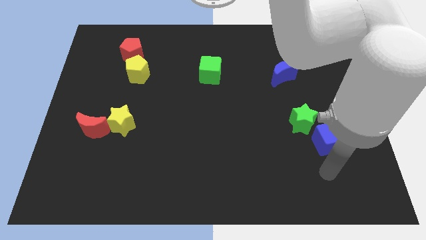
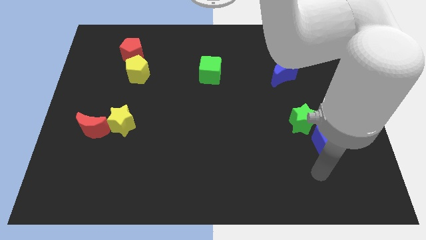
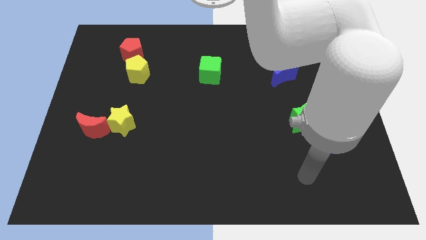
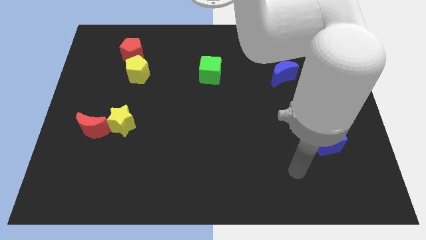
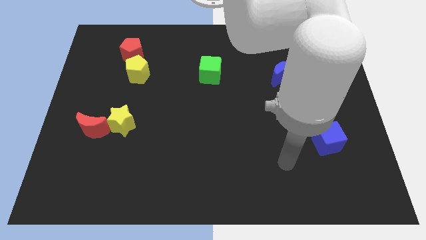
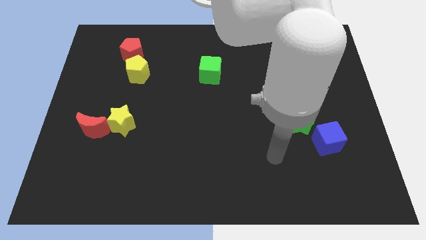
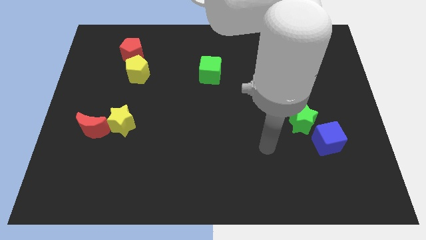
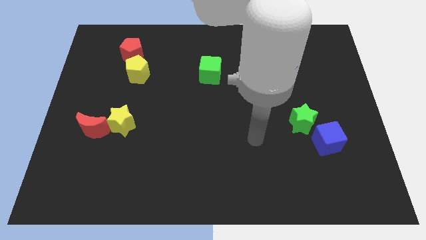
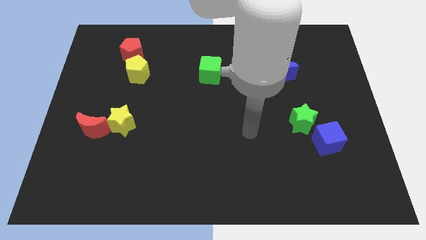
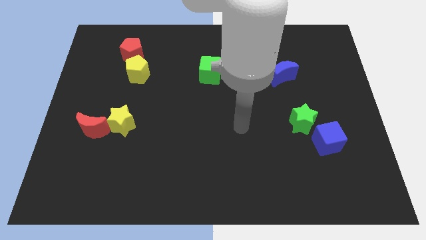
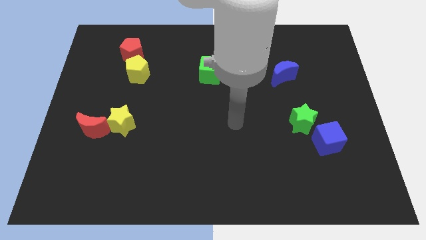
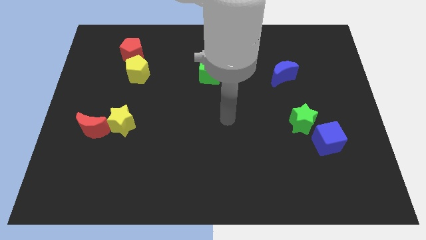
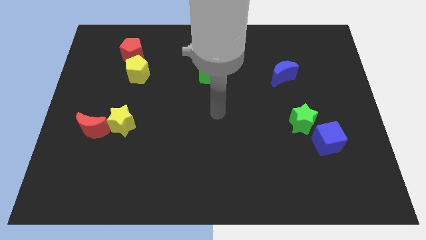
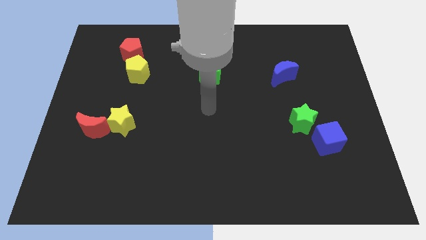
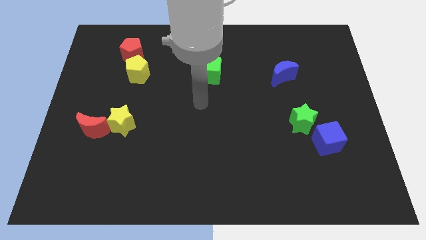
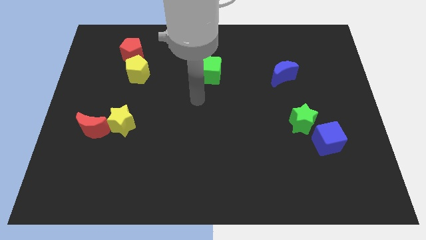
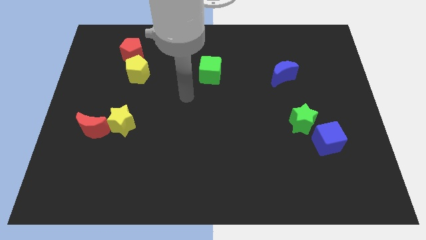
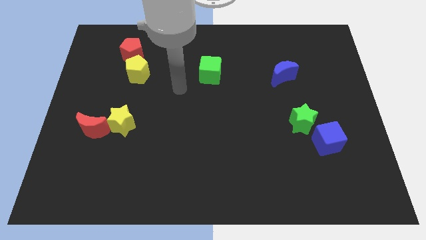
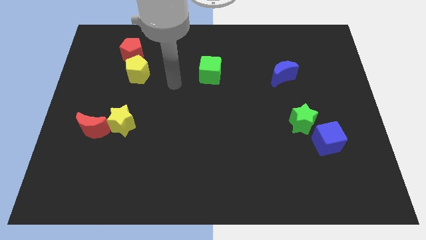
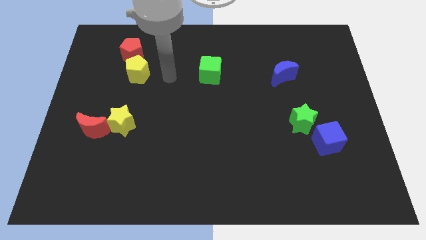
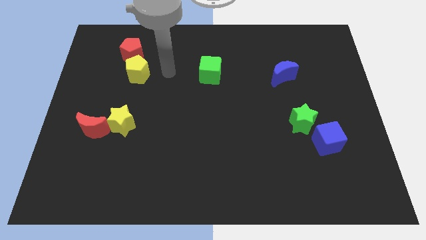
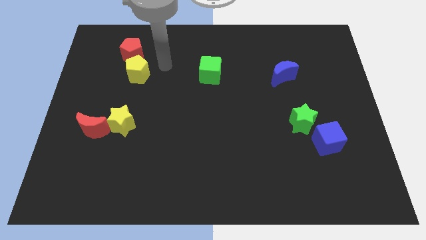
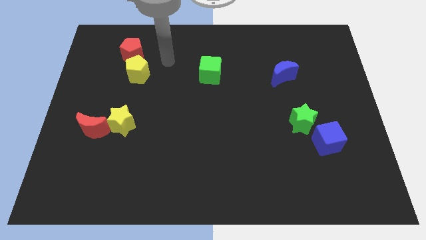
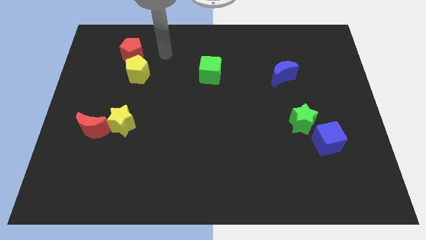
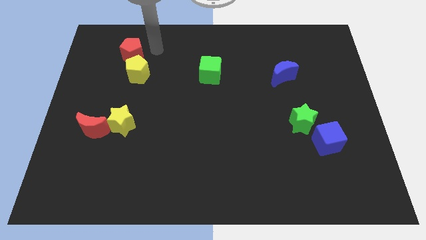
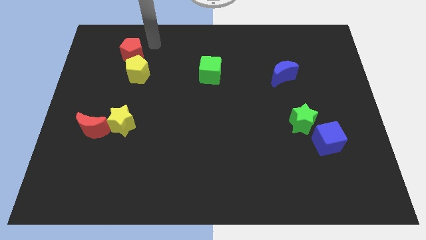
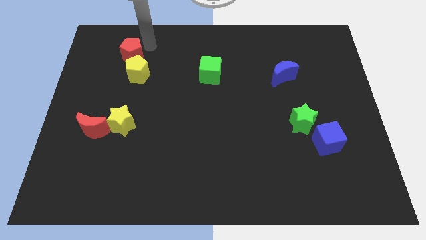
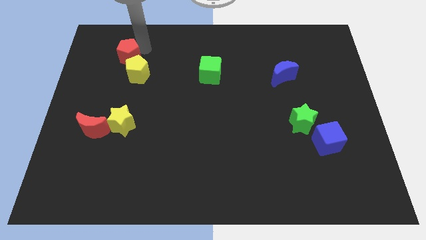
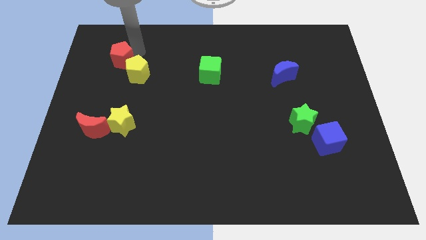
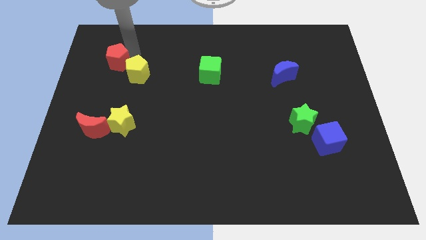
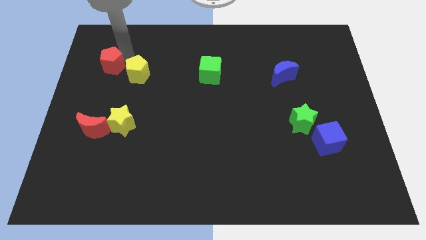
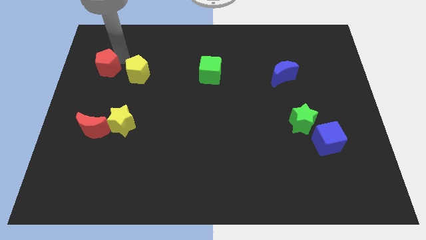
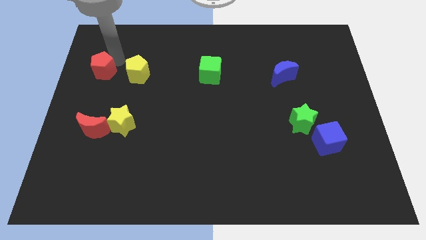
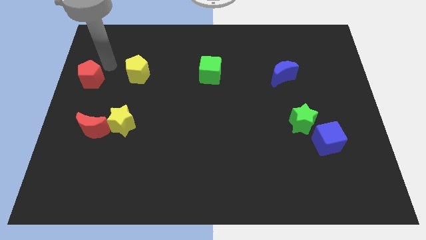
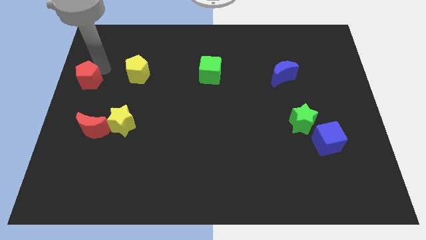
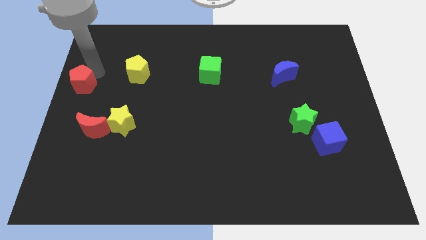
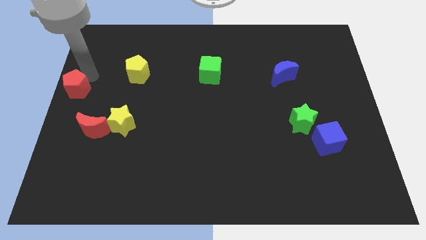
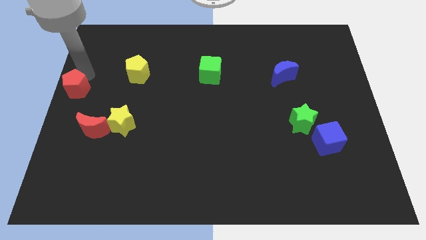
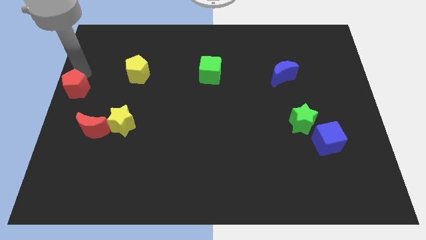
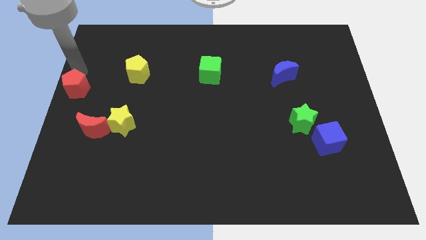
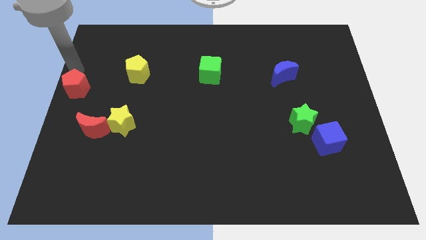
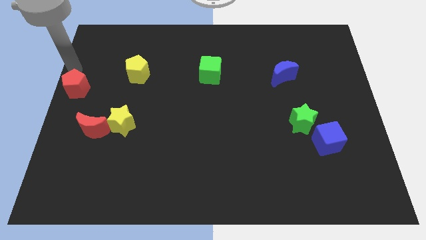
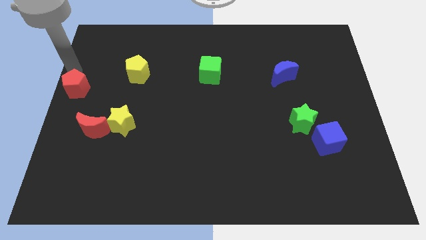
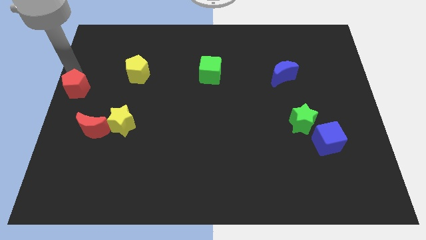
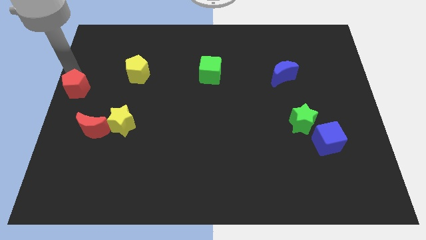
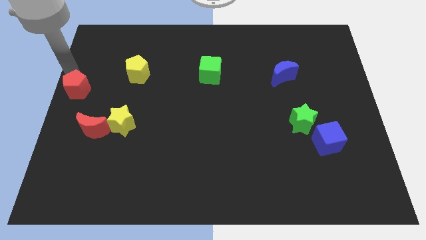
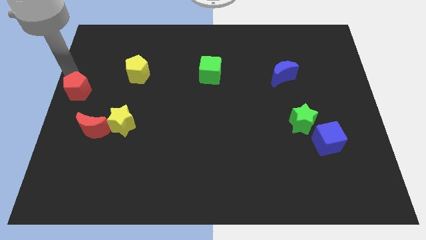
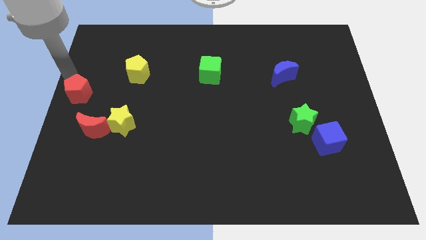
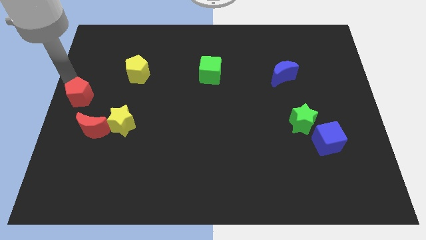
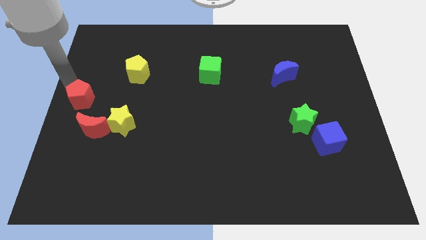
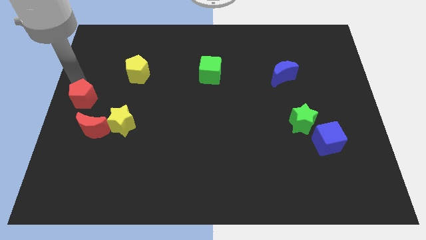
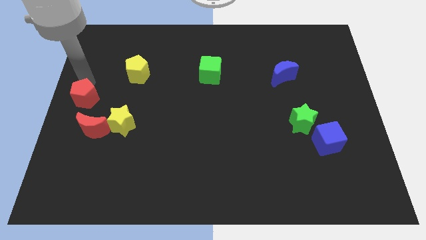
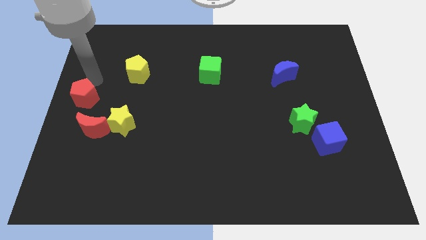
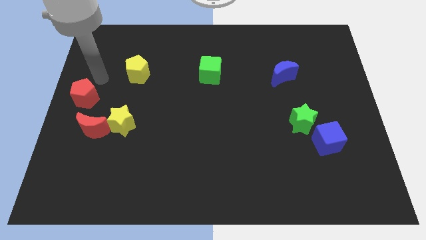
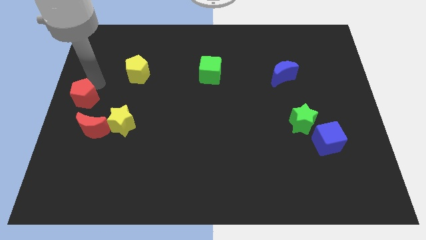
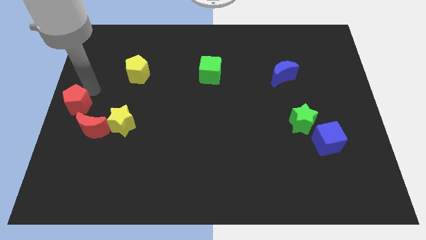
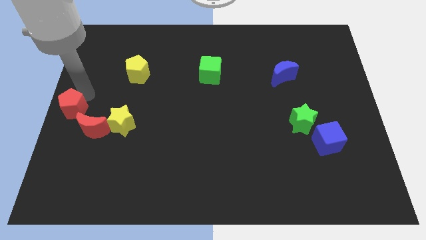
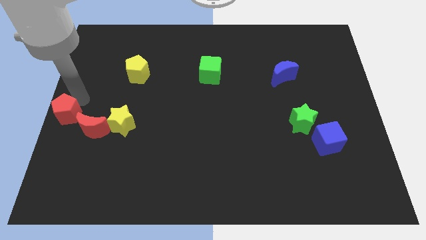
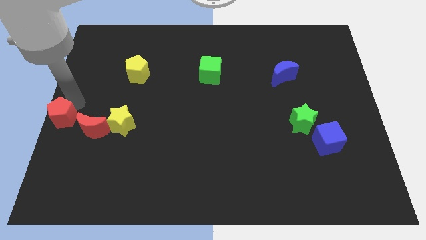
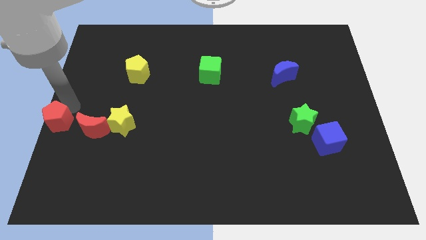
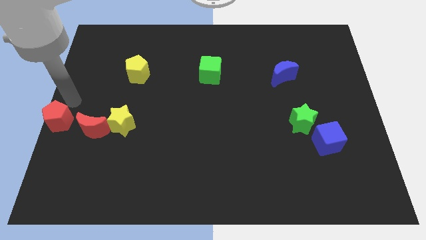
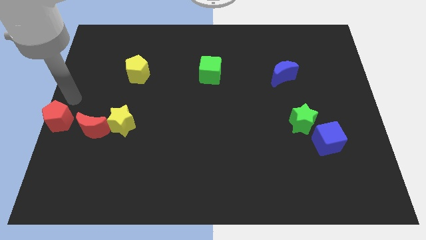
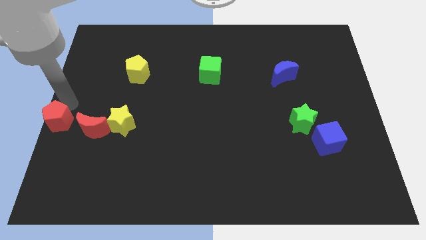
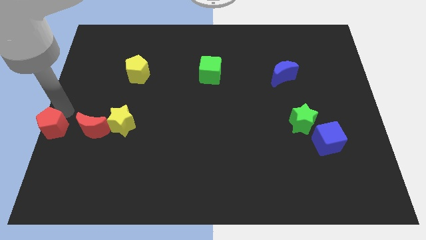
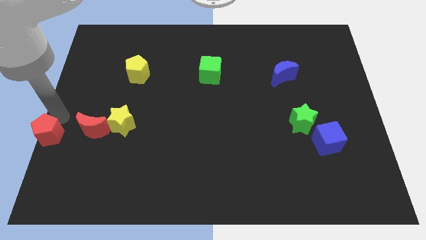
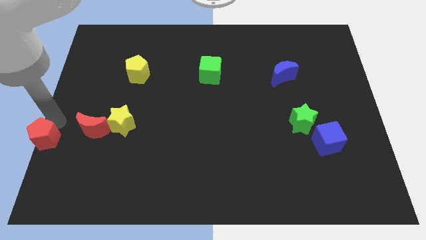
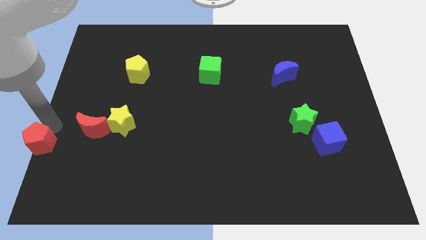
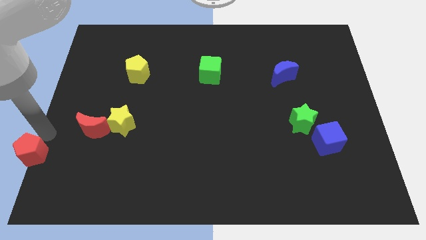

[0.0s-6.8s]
move the red pentagon to the lower left corner

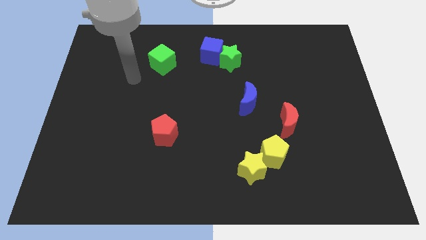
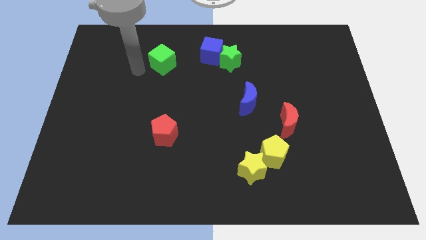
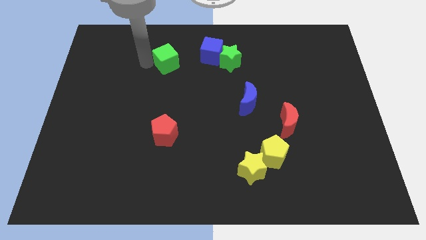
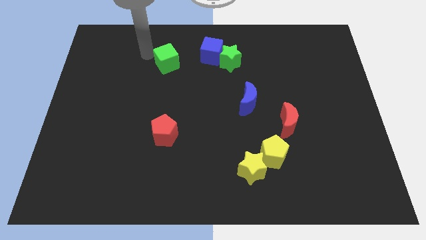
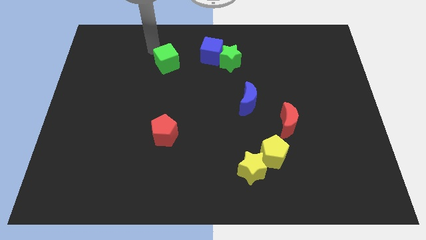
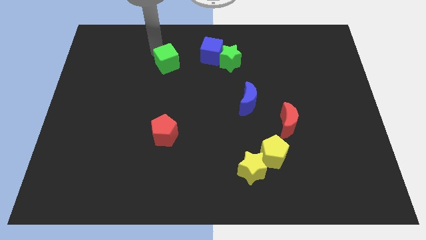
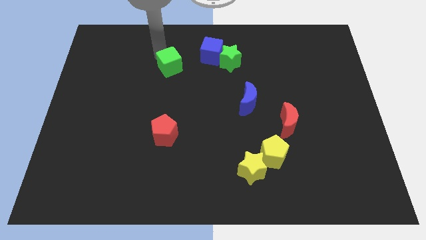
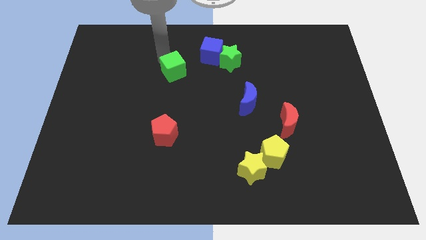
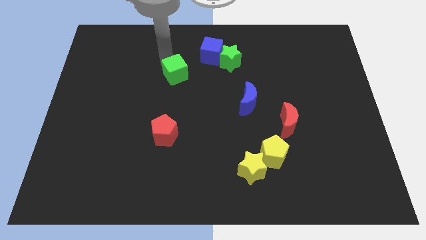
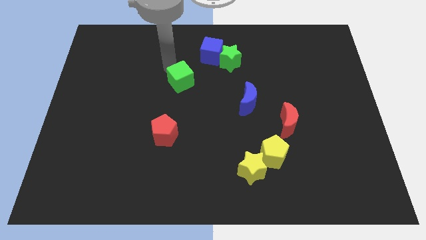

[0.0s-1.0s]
move the green cube to the center of the board
